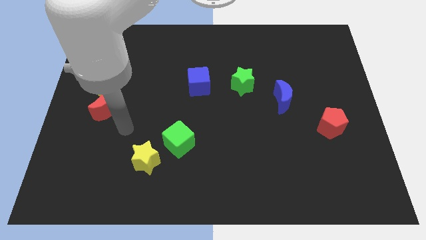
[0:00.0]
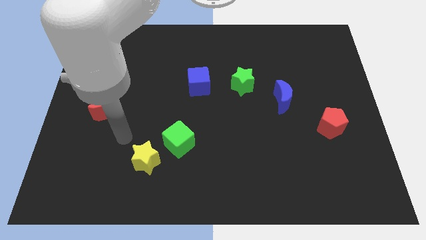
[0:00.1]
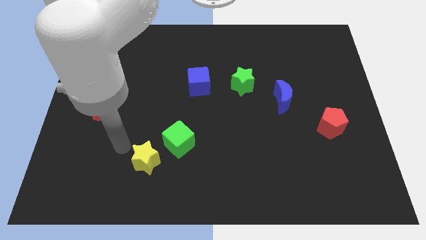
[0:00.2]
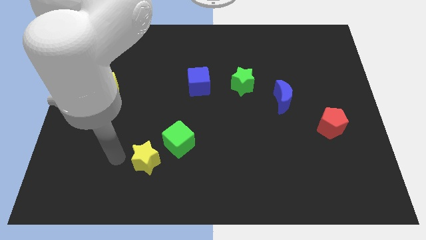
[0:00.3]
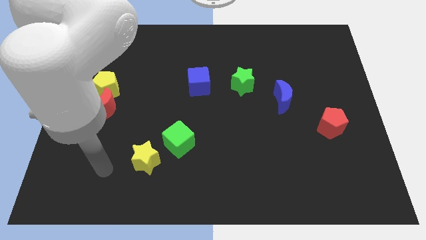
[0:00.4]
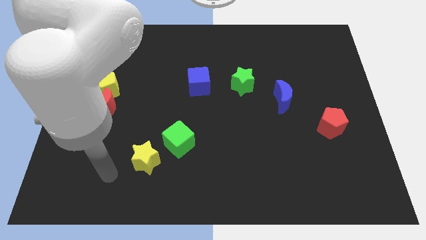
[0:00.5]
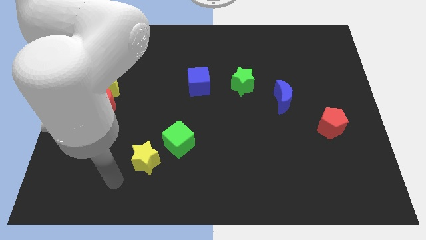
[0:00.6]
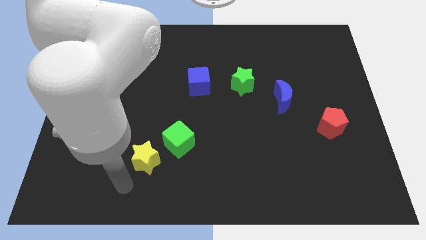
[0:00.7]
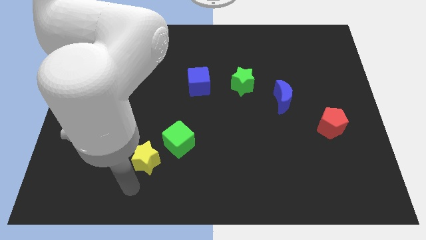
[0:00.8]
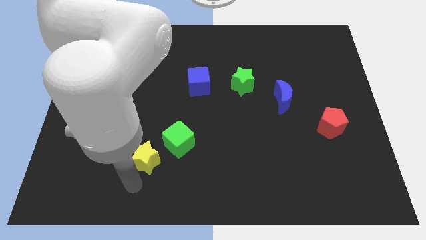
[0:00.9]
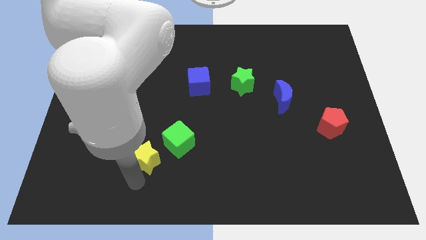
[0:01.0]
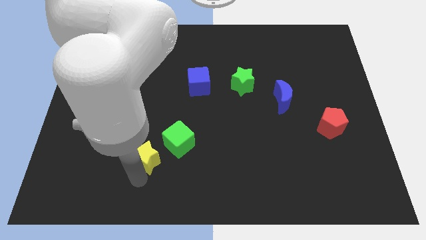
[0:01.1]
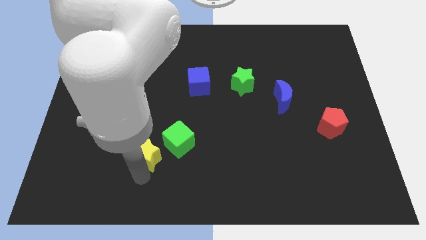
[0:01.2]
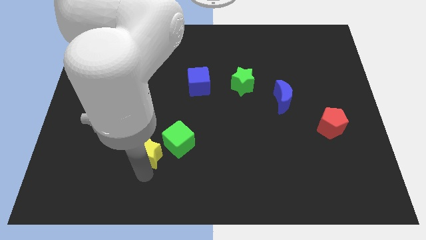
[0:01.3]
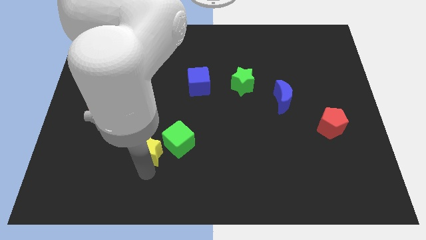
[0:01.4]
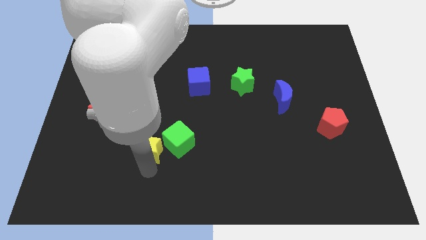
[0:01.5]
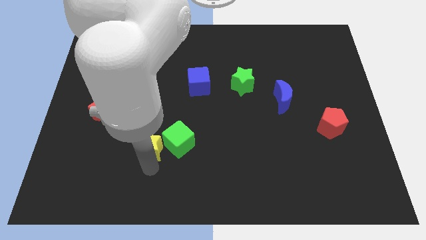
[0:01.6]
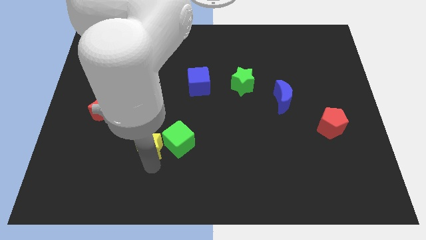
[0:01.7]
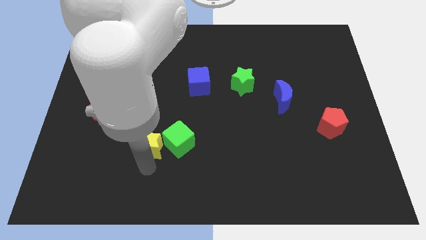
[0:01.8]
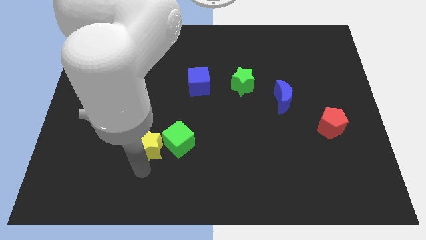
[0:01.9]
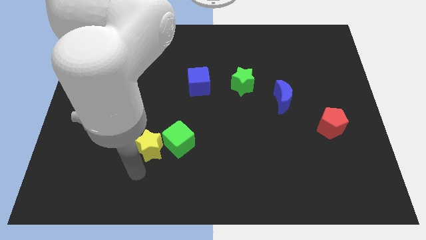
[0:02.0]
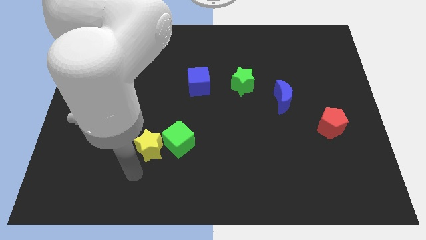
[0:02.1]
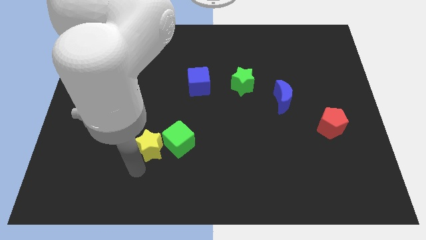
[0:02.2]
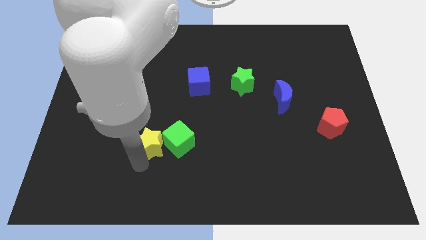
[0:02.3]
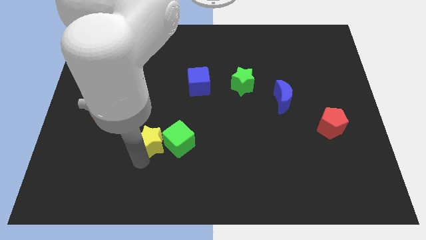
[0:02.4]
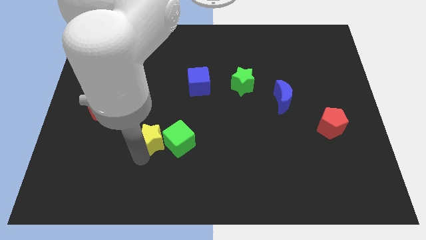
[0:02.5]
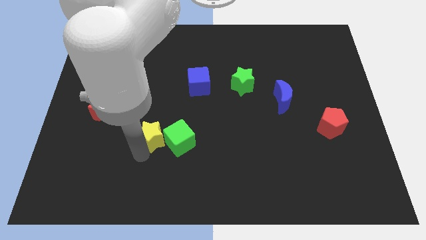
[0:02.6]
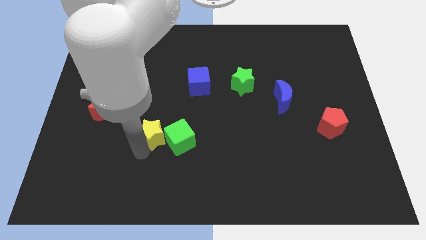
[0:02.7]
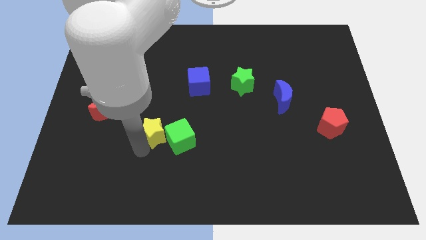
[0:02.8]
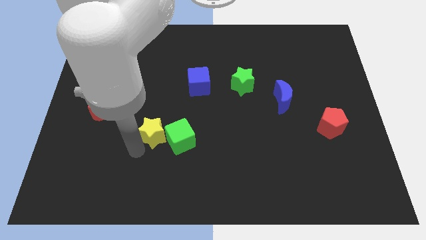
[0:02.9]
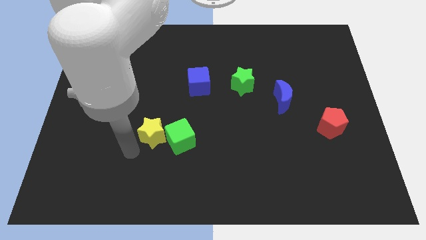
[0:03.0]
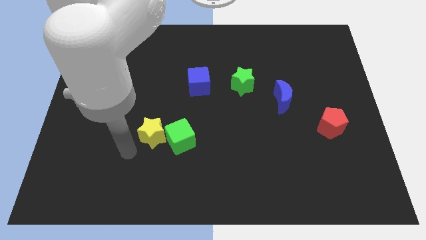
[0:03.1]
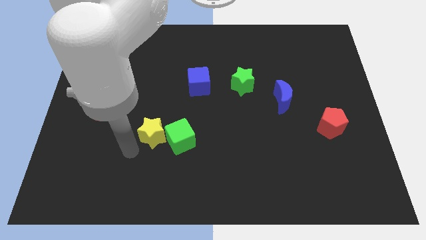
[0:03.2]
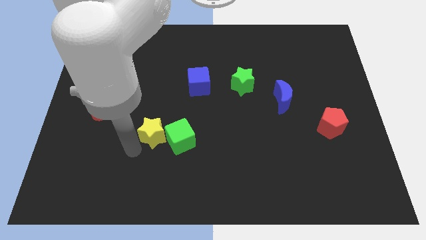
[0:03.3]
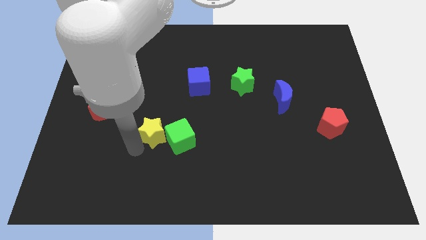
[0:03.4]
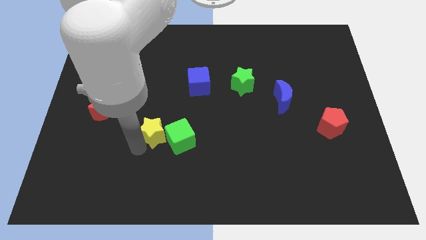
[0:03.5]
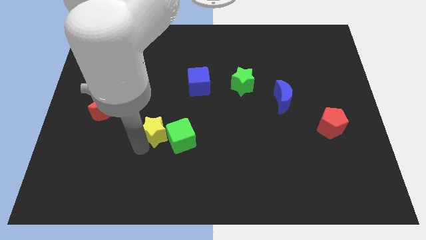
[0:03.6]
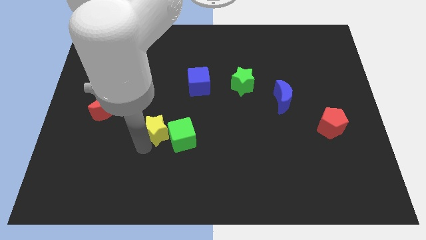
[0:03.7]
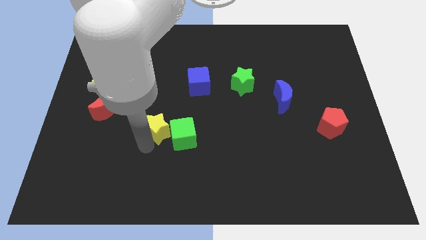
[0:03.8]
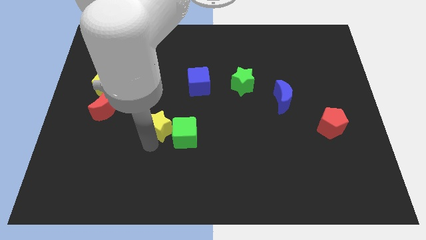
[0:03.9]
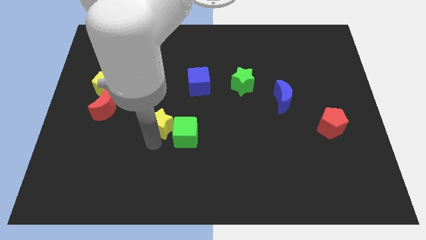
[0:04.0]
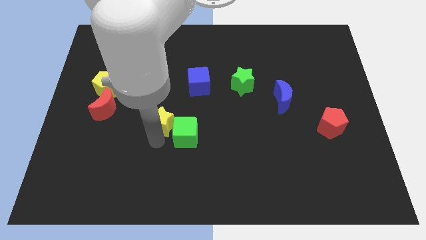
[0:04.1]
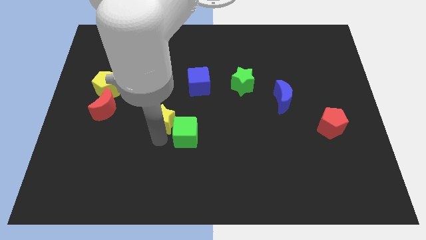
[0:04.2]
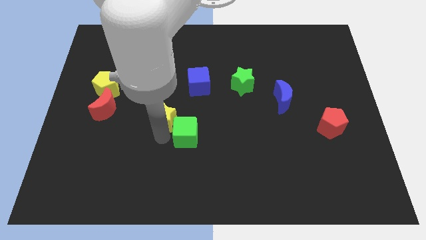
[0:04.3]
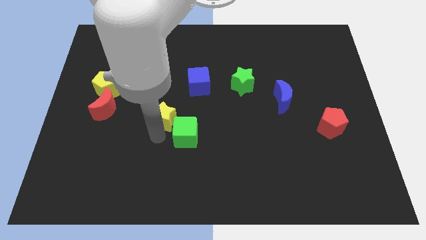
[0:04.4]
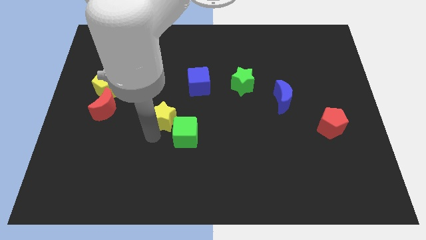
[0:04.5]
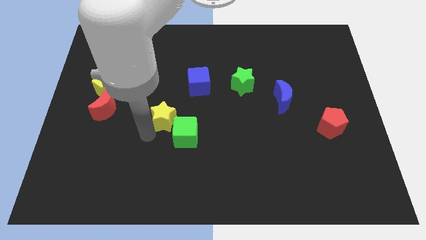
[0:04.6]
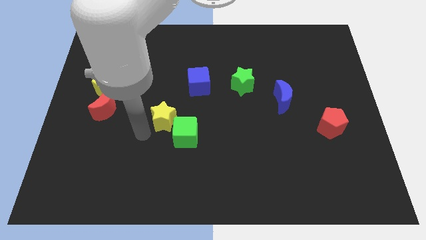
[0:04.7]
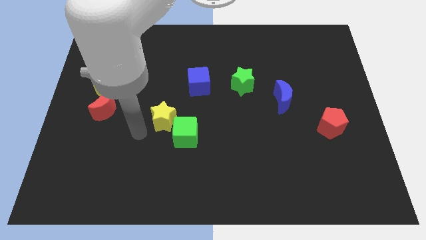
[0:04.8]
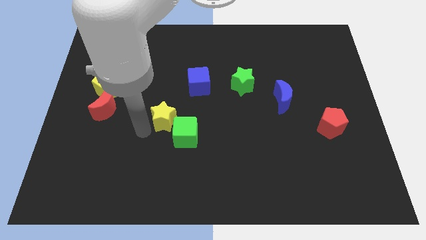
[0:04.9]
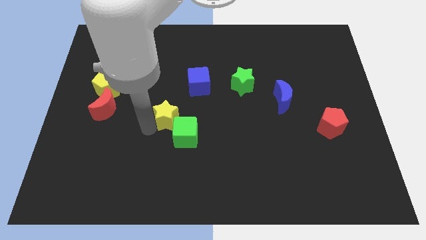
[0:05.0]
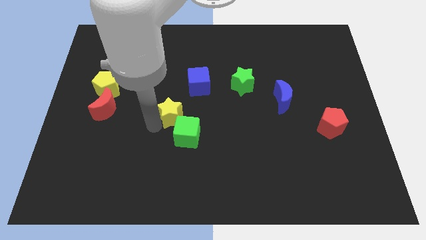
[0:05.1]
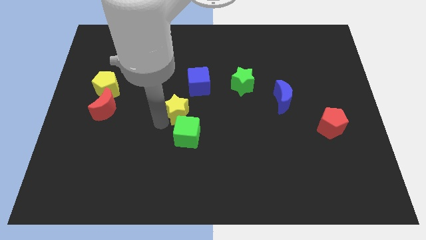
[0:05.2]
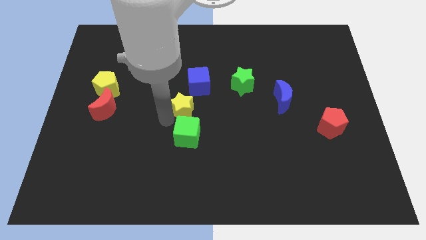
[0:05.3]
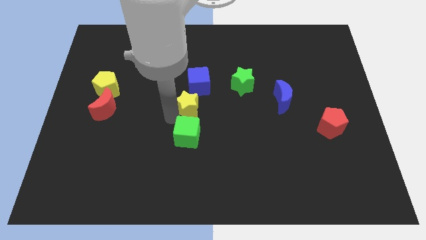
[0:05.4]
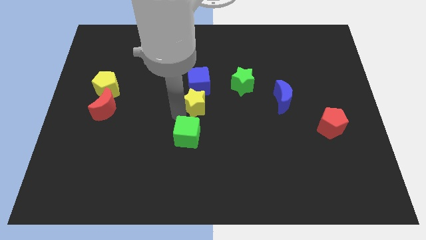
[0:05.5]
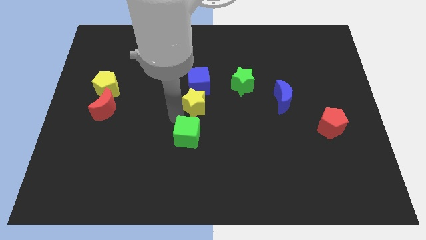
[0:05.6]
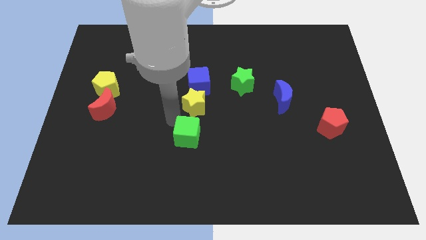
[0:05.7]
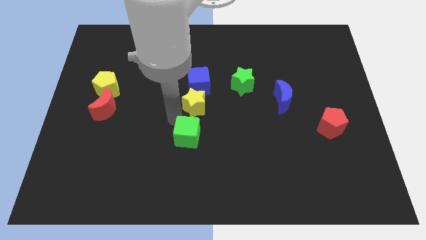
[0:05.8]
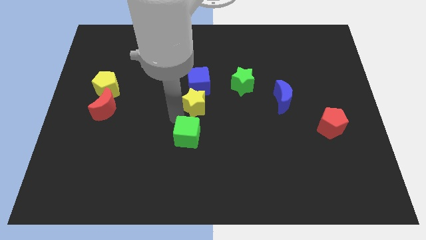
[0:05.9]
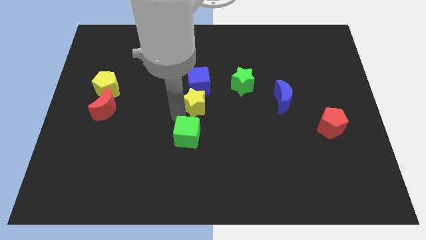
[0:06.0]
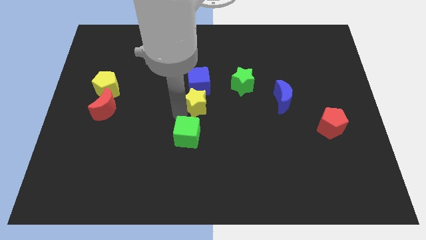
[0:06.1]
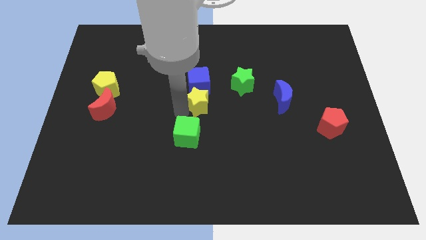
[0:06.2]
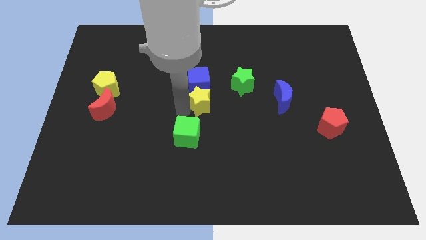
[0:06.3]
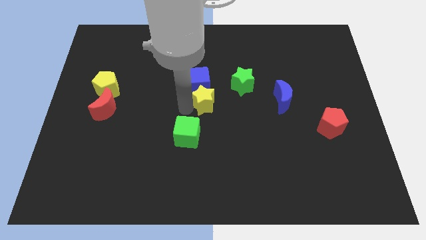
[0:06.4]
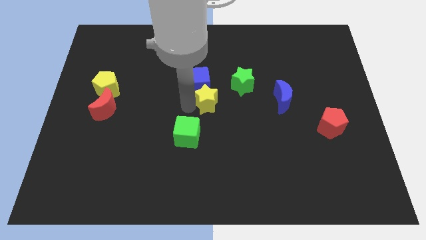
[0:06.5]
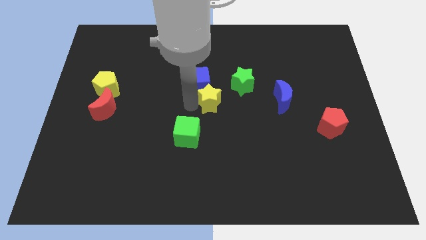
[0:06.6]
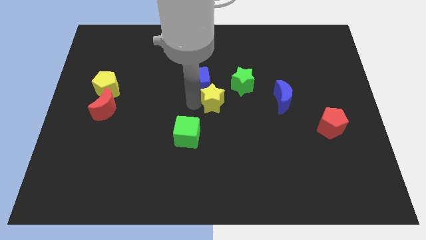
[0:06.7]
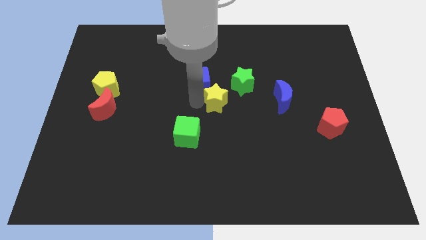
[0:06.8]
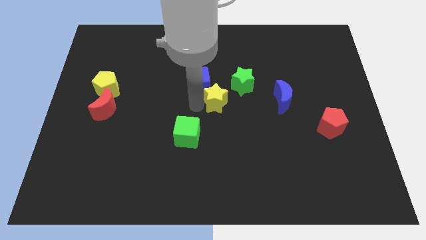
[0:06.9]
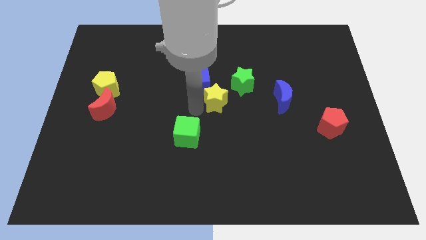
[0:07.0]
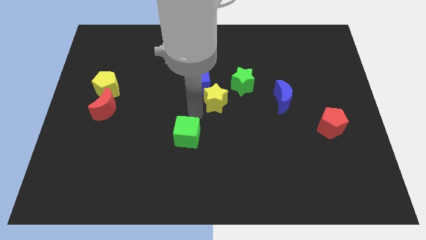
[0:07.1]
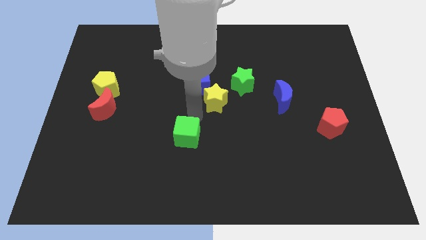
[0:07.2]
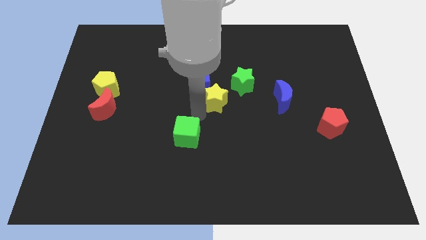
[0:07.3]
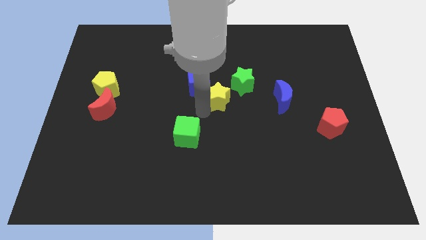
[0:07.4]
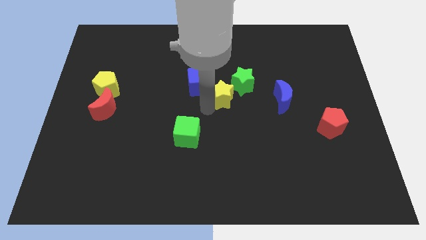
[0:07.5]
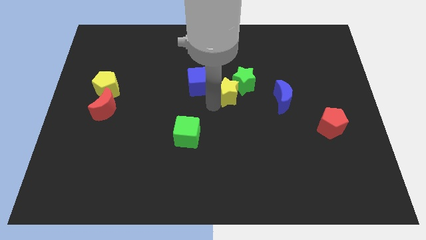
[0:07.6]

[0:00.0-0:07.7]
move the yellow star close to the green star
